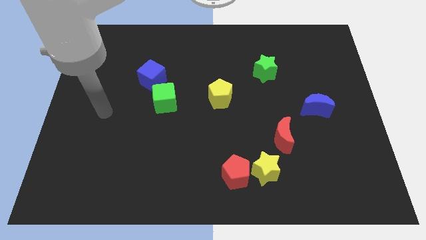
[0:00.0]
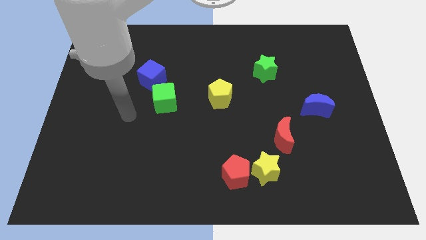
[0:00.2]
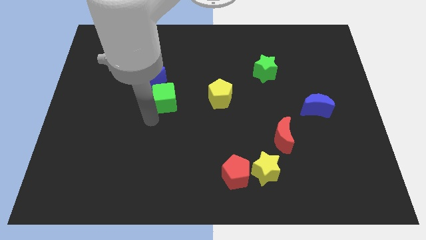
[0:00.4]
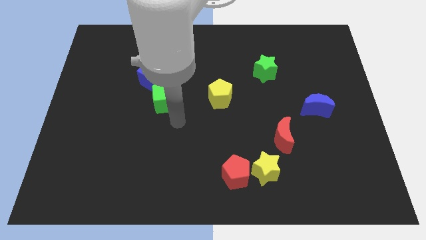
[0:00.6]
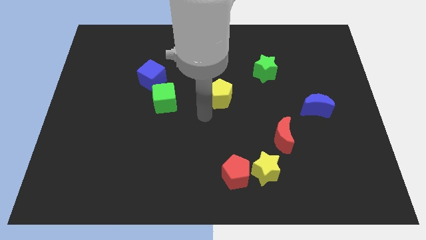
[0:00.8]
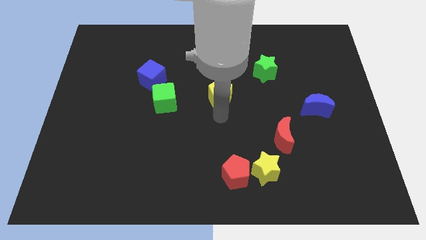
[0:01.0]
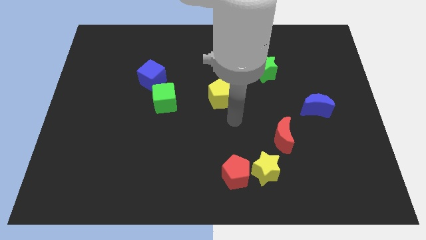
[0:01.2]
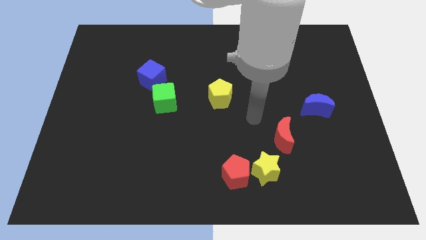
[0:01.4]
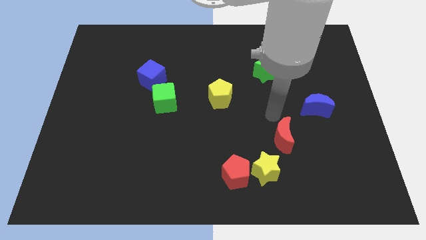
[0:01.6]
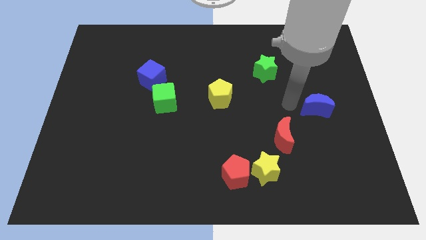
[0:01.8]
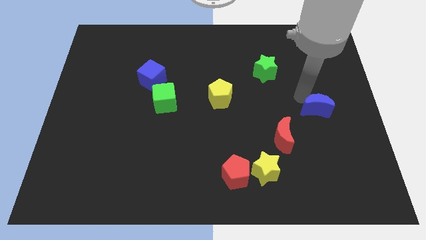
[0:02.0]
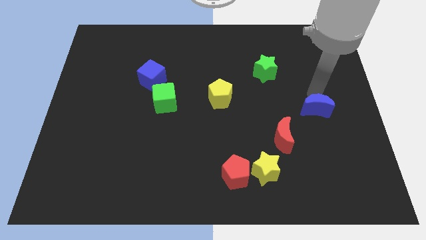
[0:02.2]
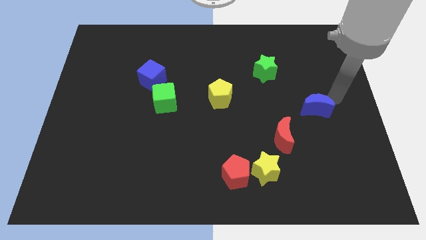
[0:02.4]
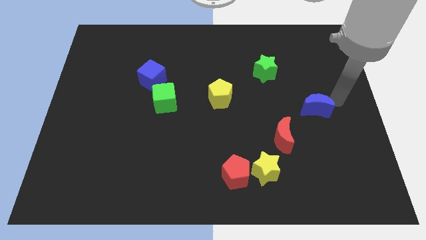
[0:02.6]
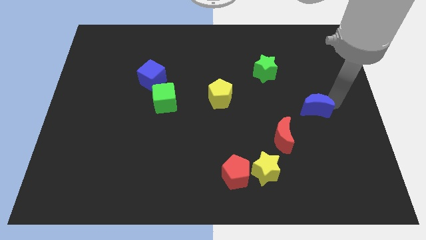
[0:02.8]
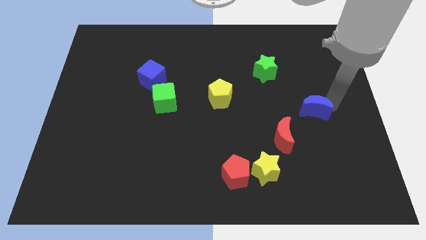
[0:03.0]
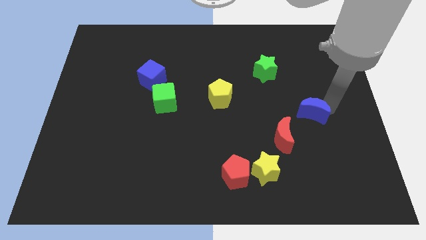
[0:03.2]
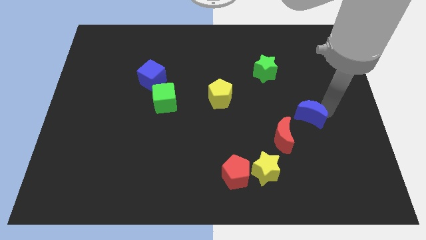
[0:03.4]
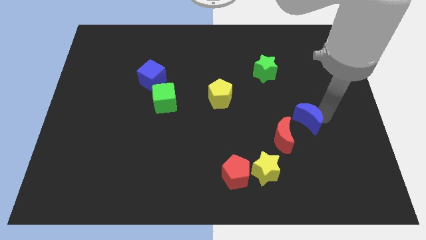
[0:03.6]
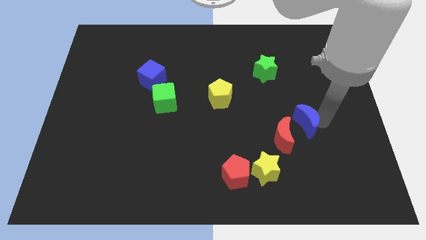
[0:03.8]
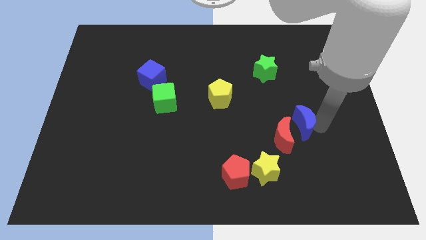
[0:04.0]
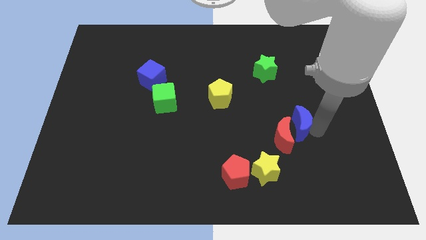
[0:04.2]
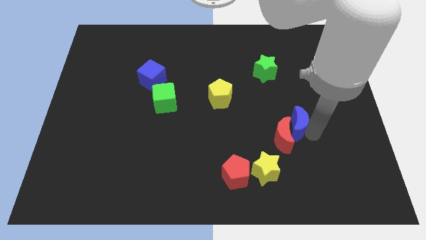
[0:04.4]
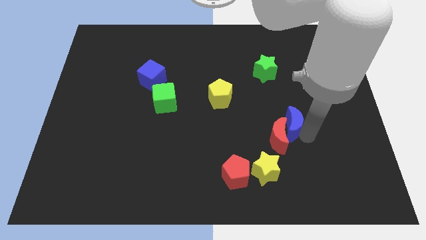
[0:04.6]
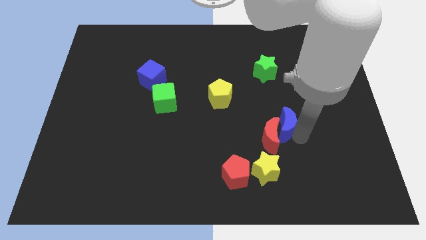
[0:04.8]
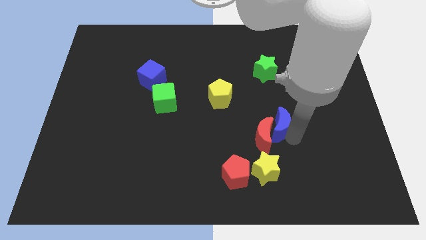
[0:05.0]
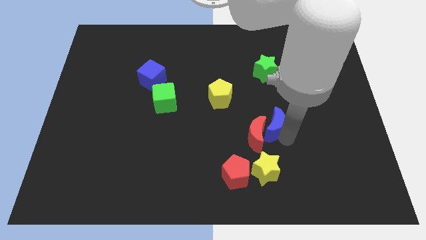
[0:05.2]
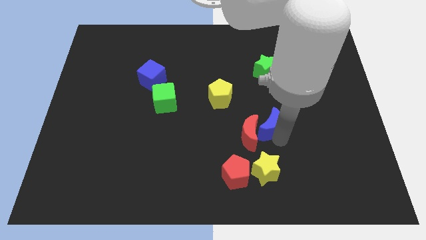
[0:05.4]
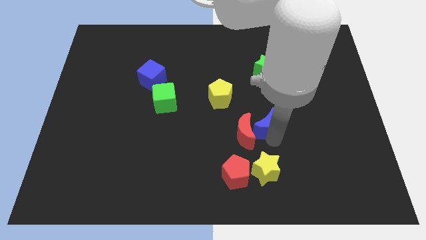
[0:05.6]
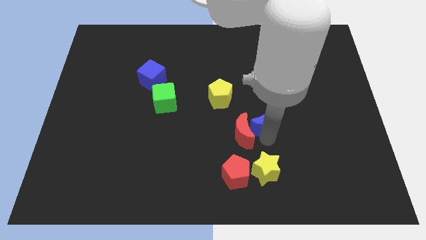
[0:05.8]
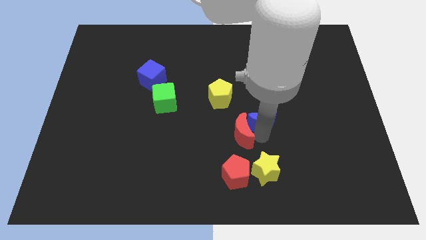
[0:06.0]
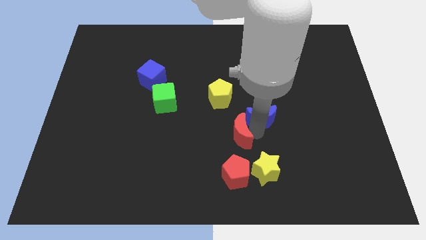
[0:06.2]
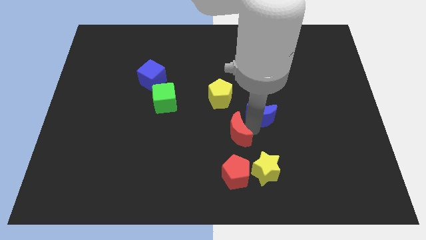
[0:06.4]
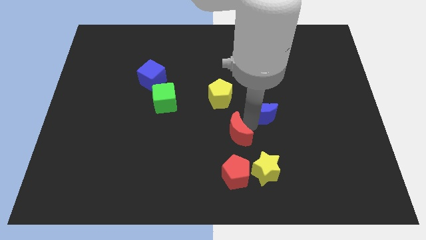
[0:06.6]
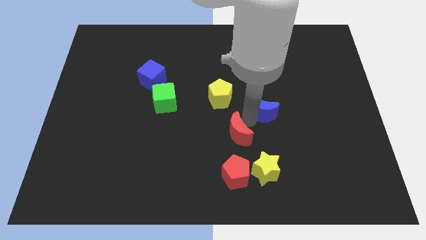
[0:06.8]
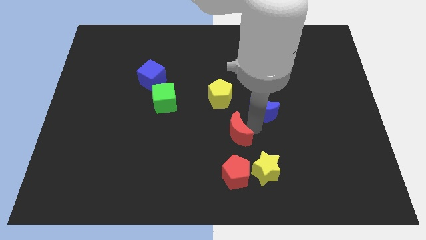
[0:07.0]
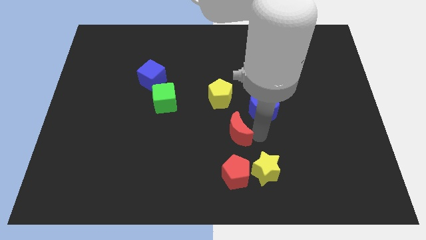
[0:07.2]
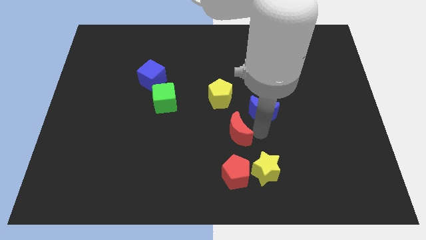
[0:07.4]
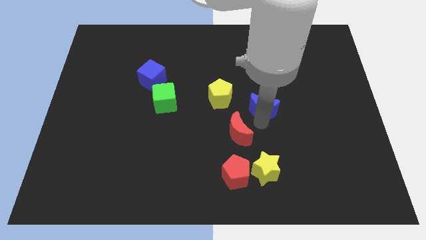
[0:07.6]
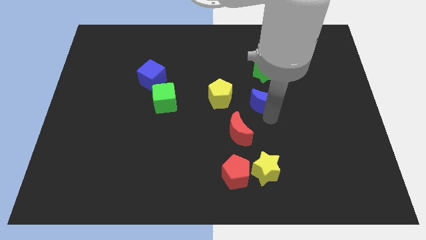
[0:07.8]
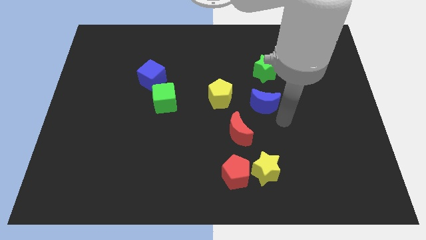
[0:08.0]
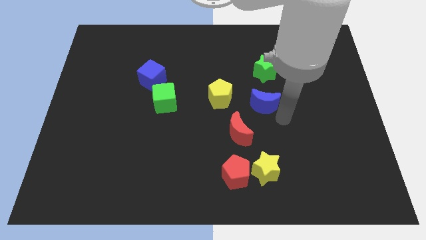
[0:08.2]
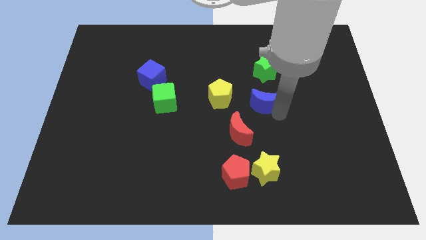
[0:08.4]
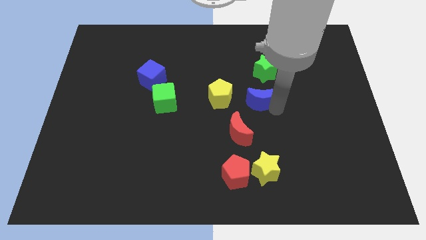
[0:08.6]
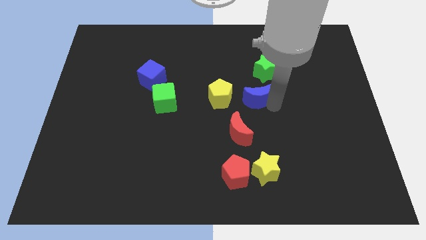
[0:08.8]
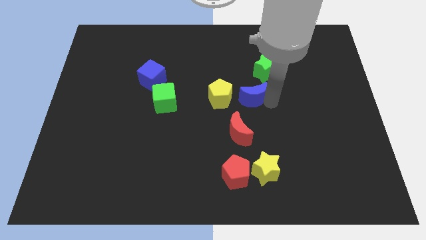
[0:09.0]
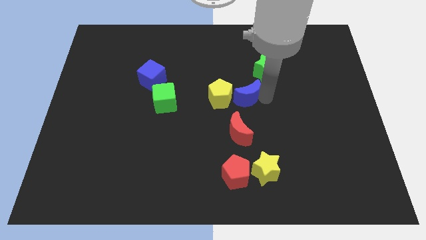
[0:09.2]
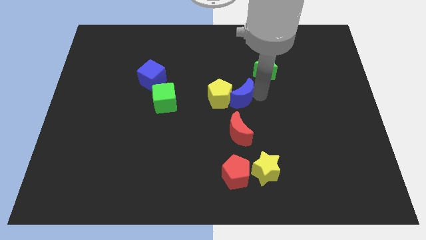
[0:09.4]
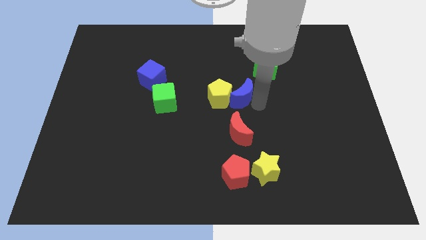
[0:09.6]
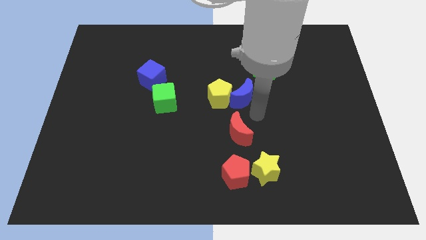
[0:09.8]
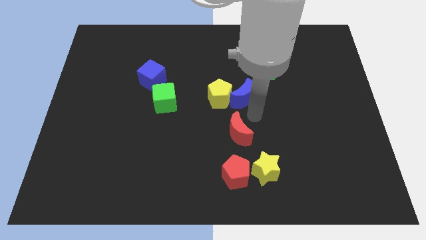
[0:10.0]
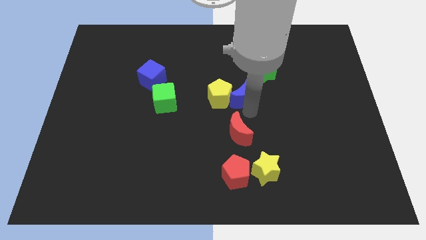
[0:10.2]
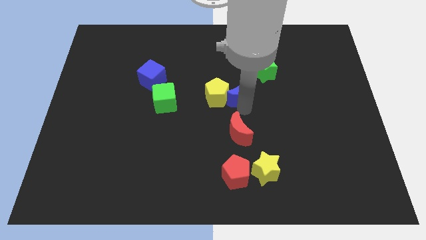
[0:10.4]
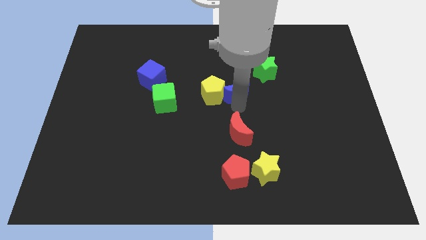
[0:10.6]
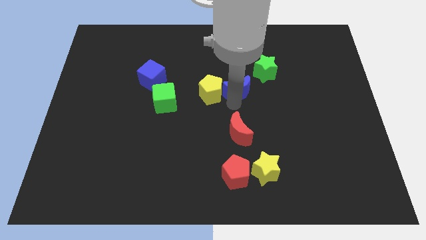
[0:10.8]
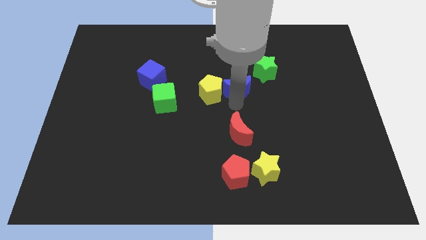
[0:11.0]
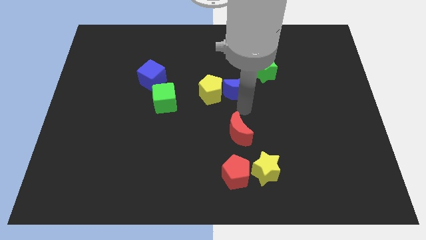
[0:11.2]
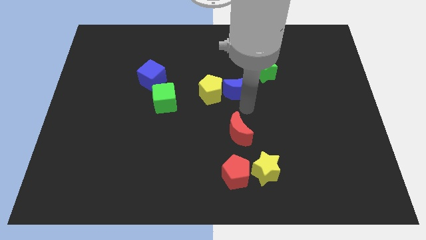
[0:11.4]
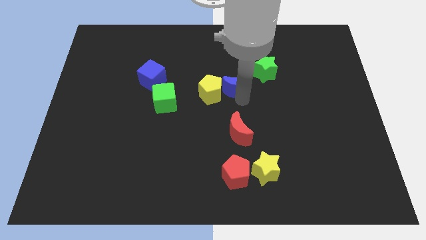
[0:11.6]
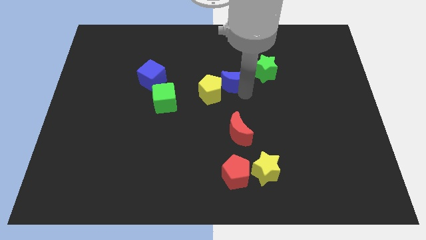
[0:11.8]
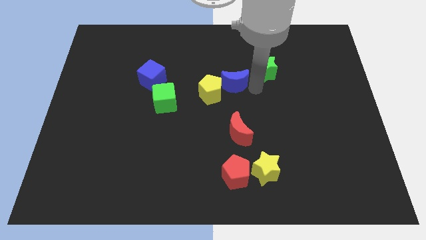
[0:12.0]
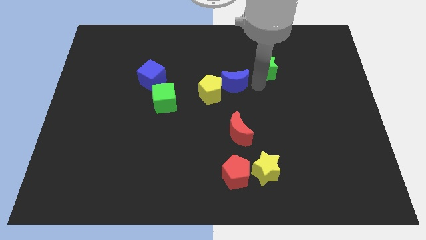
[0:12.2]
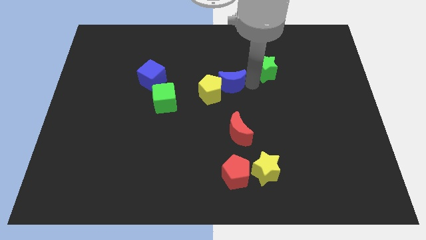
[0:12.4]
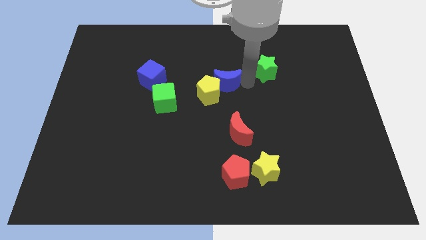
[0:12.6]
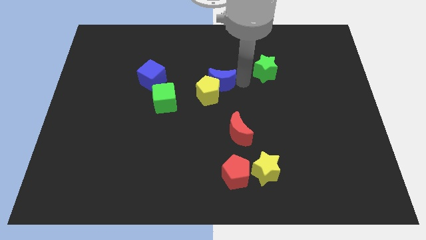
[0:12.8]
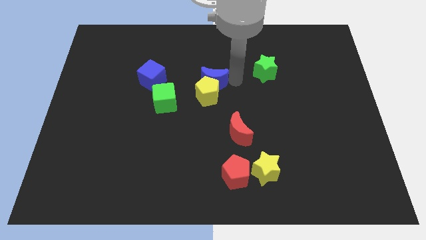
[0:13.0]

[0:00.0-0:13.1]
put the blue moon diagonally up and to the left of the yellow pentagon
